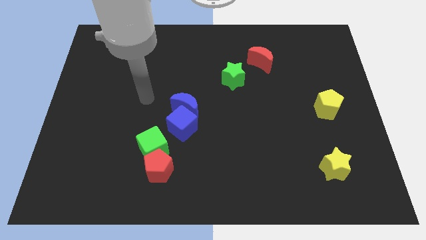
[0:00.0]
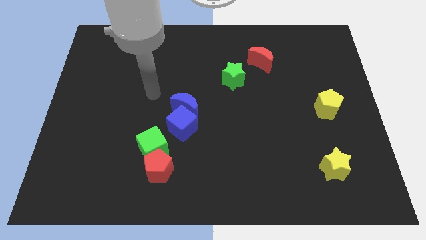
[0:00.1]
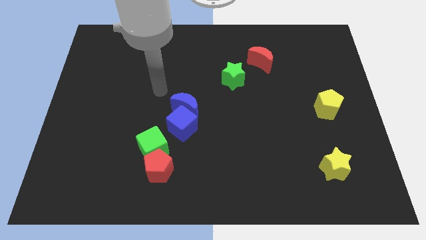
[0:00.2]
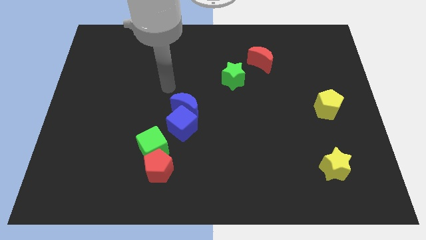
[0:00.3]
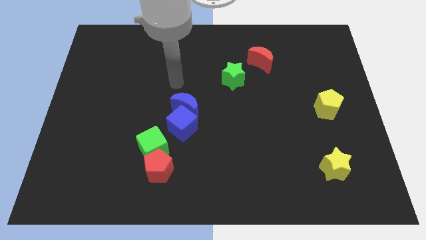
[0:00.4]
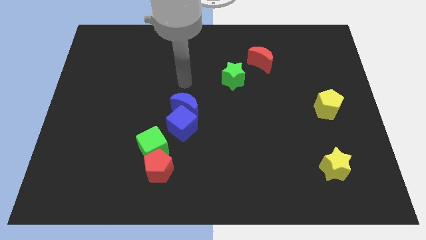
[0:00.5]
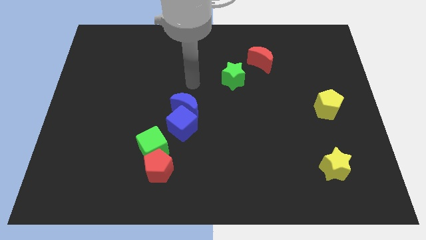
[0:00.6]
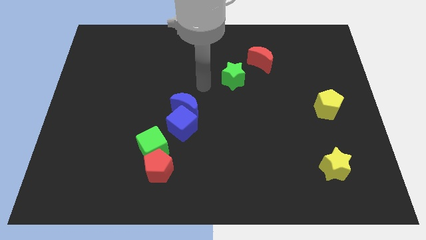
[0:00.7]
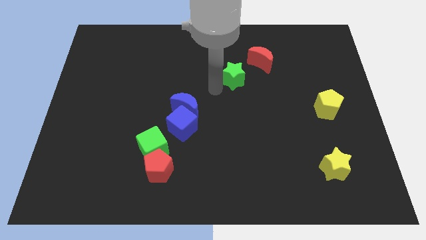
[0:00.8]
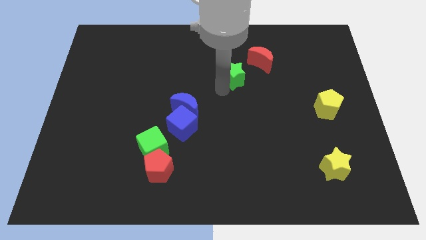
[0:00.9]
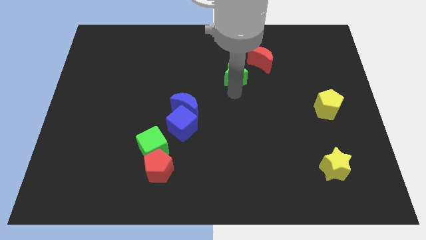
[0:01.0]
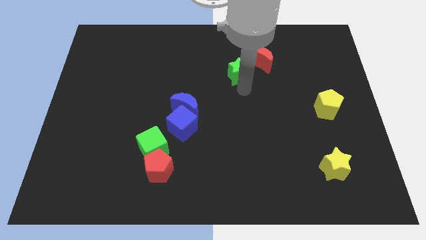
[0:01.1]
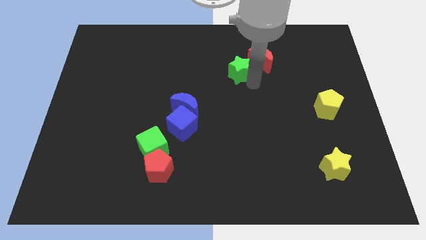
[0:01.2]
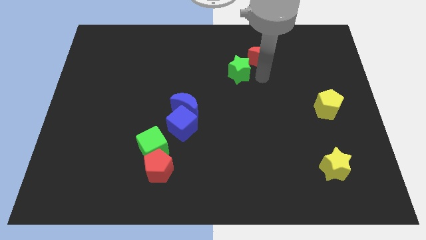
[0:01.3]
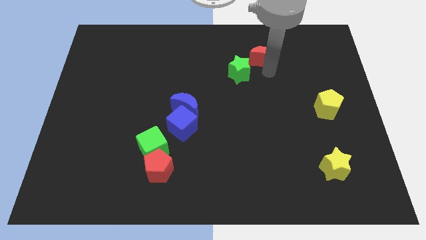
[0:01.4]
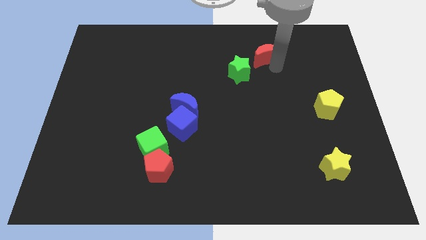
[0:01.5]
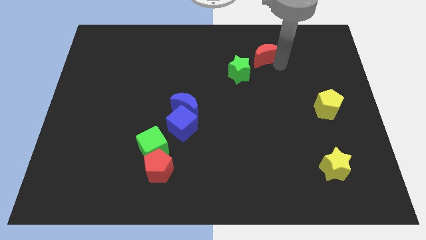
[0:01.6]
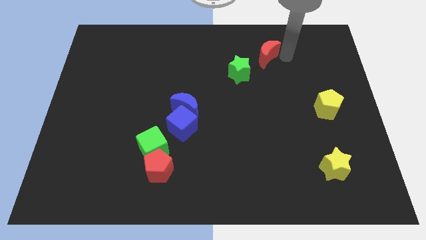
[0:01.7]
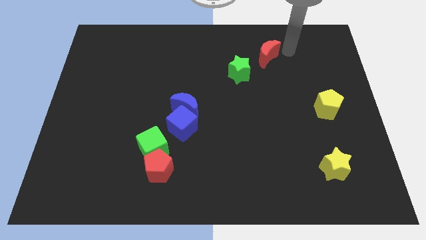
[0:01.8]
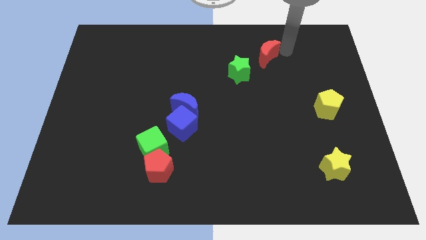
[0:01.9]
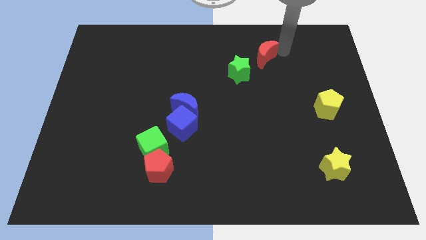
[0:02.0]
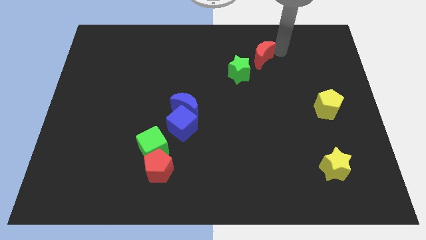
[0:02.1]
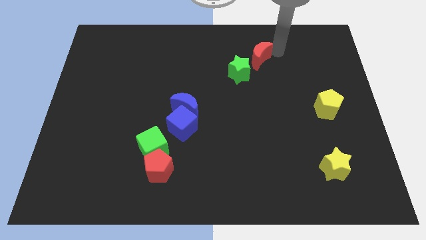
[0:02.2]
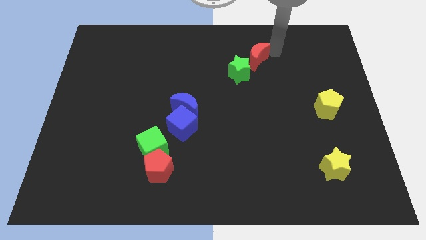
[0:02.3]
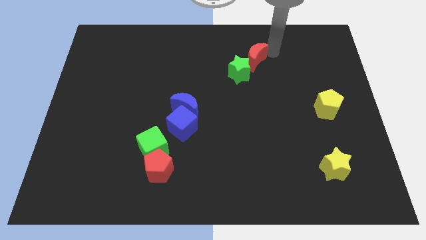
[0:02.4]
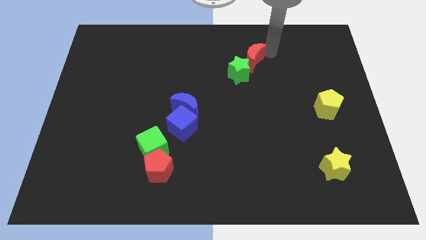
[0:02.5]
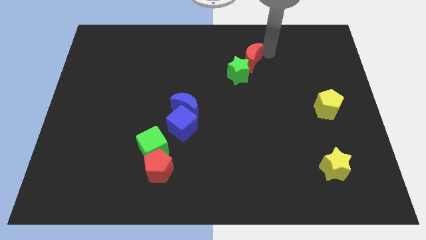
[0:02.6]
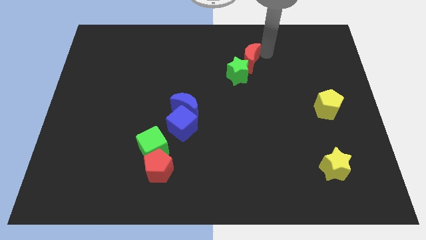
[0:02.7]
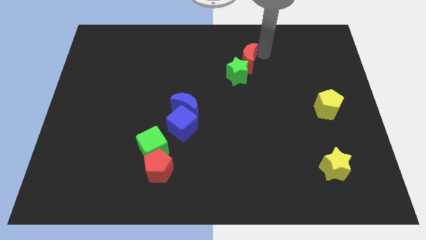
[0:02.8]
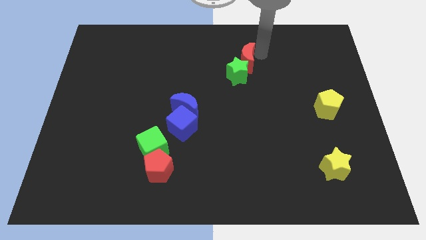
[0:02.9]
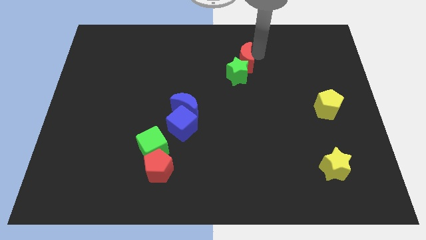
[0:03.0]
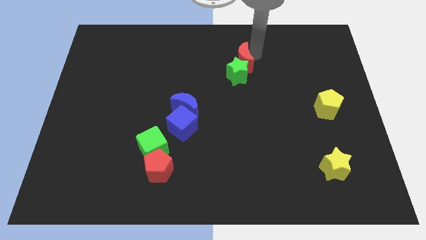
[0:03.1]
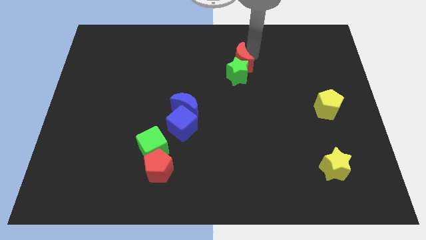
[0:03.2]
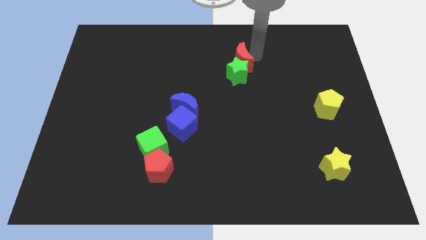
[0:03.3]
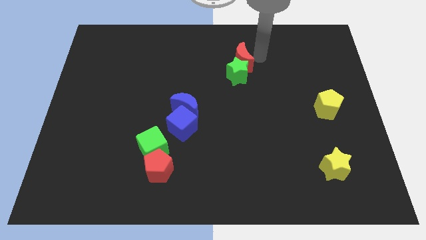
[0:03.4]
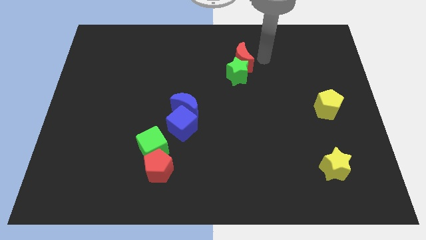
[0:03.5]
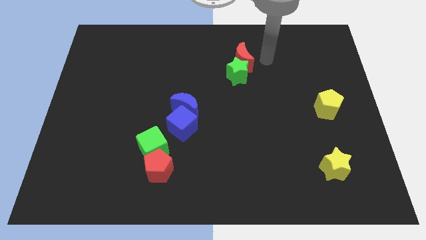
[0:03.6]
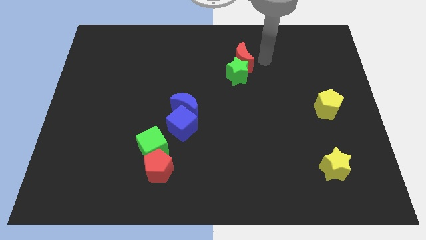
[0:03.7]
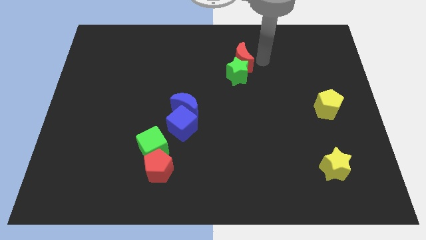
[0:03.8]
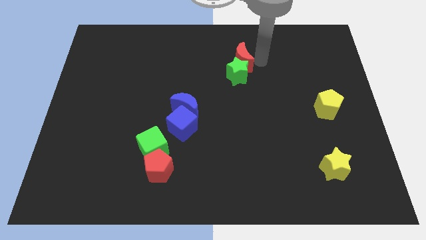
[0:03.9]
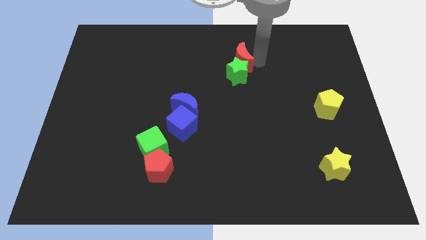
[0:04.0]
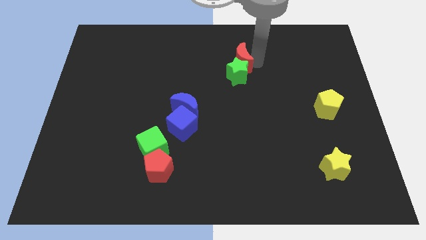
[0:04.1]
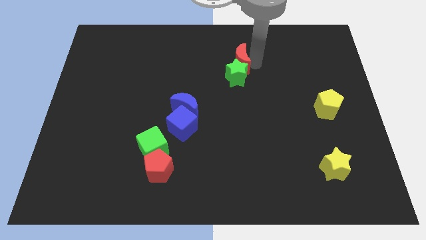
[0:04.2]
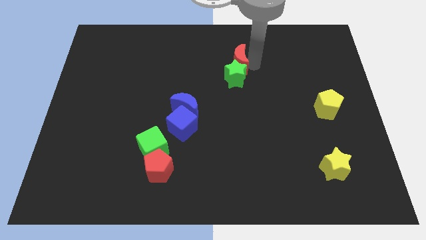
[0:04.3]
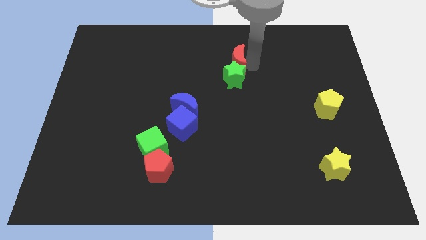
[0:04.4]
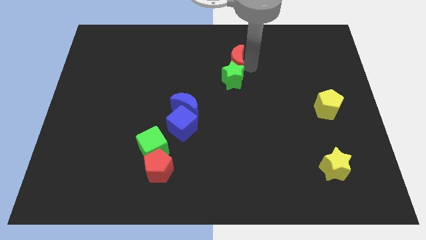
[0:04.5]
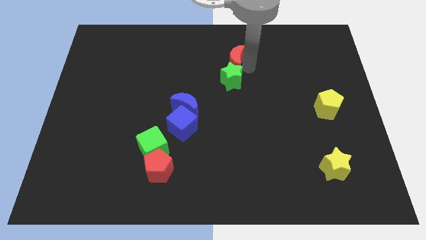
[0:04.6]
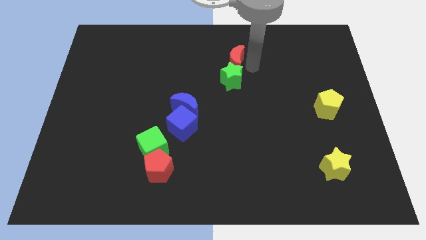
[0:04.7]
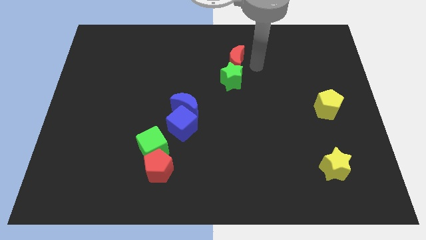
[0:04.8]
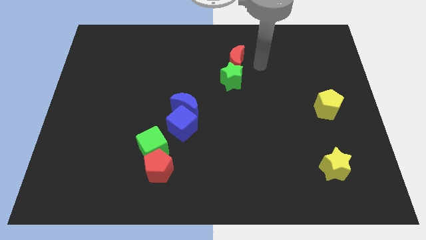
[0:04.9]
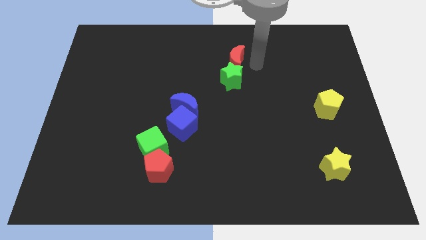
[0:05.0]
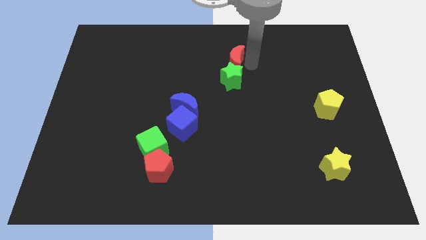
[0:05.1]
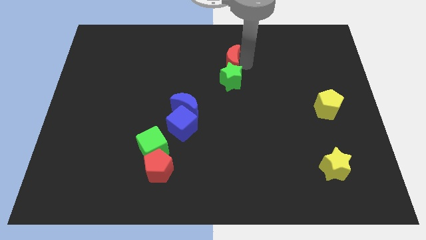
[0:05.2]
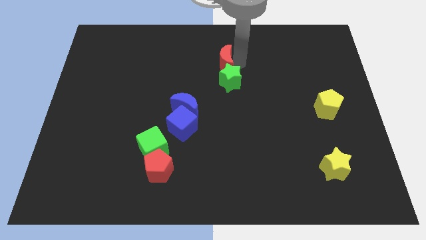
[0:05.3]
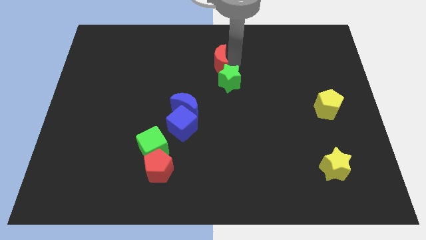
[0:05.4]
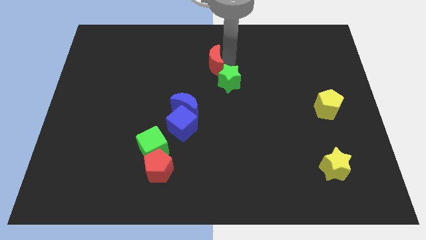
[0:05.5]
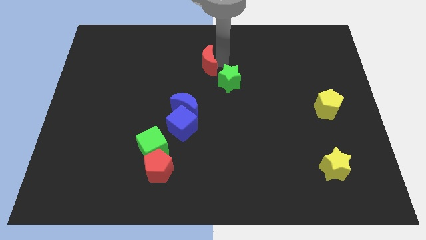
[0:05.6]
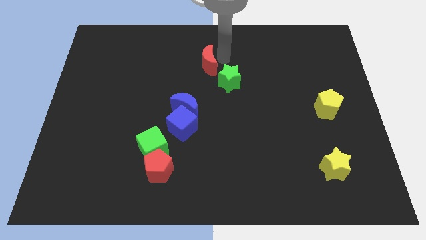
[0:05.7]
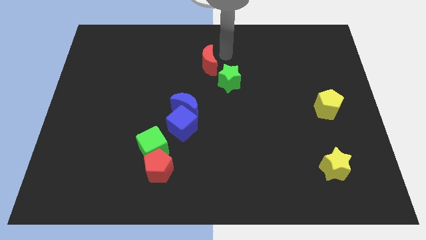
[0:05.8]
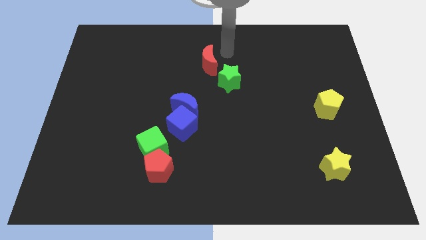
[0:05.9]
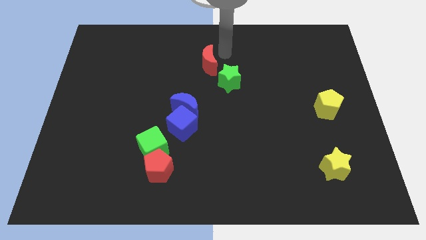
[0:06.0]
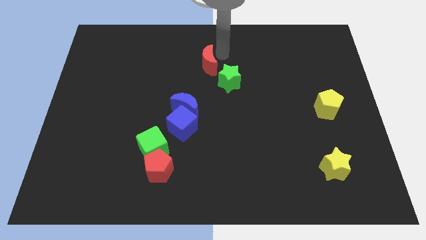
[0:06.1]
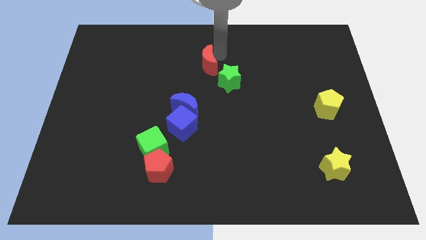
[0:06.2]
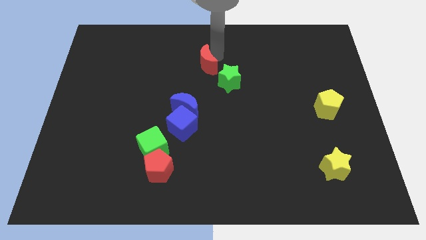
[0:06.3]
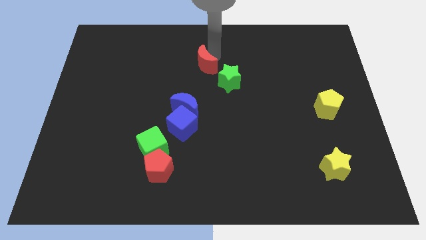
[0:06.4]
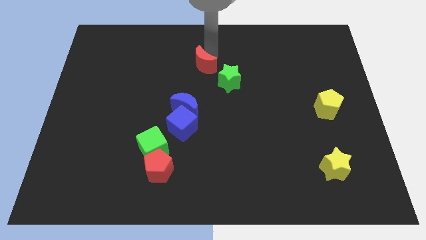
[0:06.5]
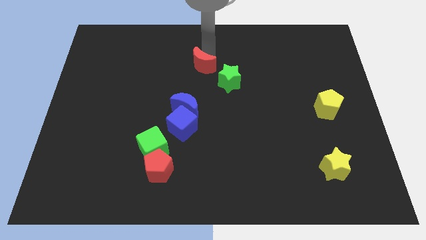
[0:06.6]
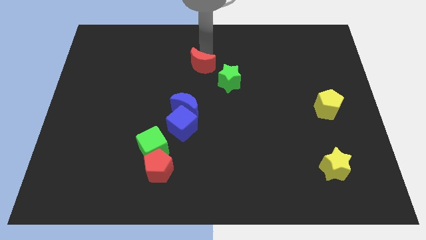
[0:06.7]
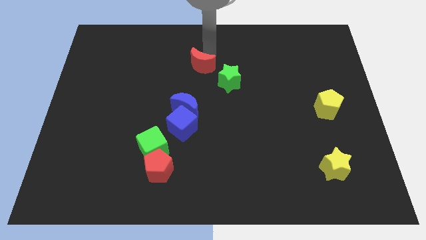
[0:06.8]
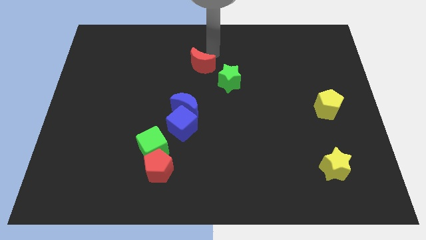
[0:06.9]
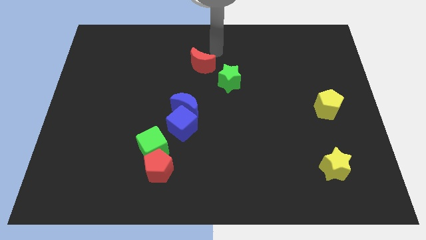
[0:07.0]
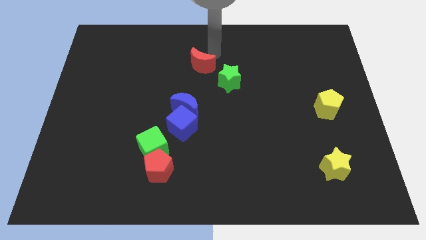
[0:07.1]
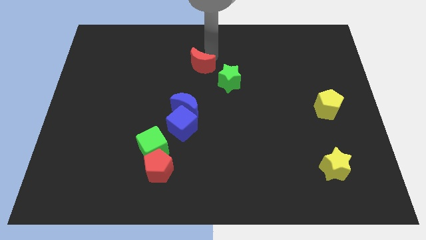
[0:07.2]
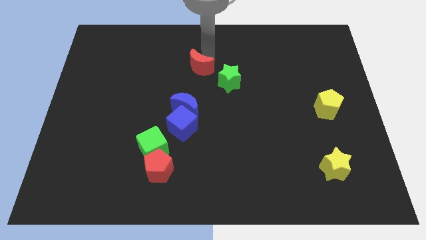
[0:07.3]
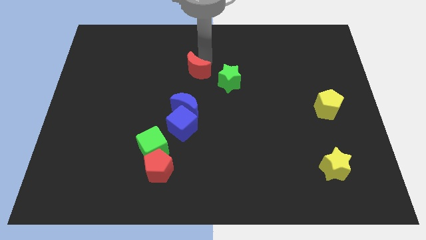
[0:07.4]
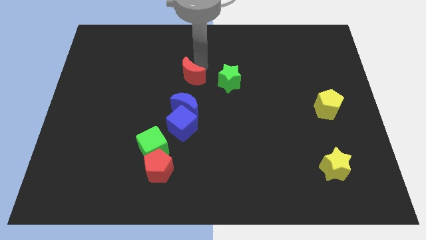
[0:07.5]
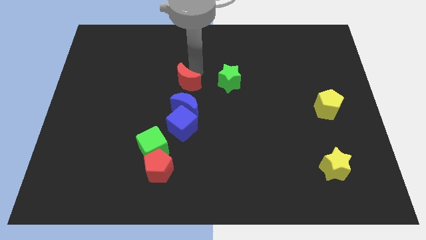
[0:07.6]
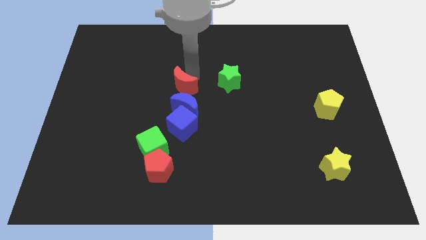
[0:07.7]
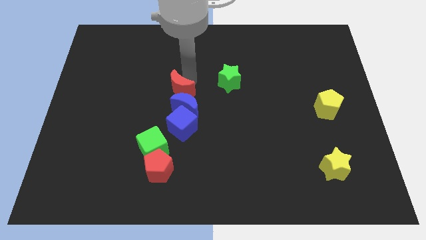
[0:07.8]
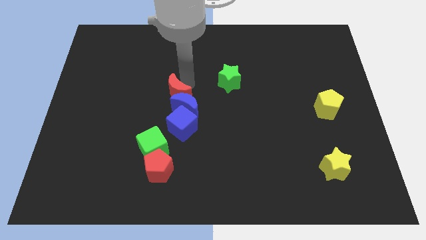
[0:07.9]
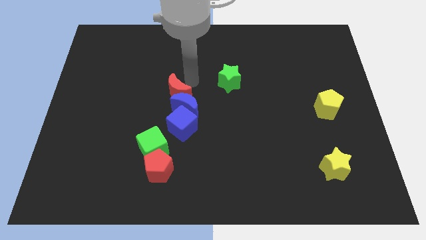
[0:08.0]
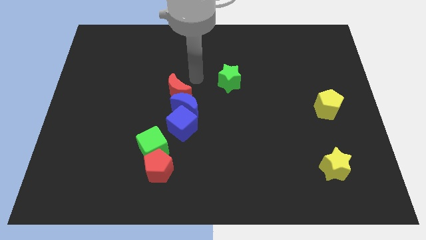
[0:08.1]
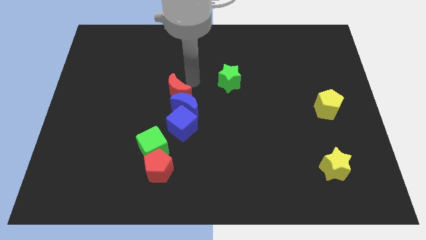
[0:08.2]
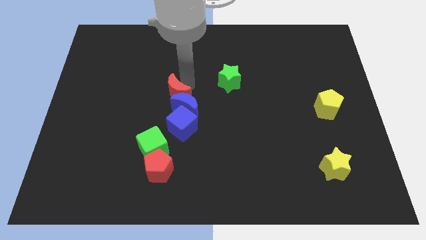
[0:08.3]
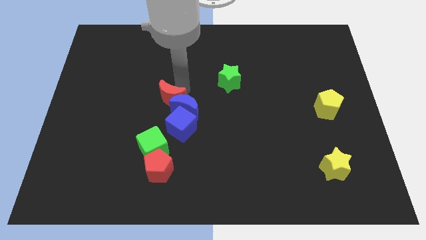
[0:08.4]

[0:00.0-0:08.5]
slide the red moon above the green cube
